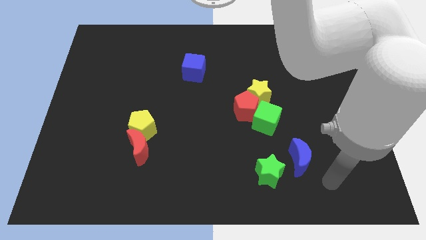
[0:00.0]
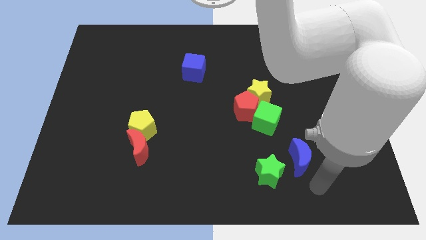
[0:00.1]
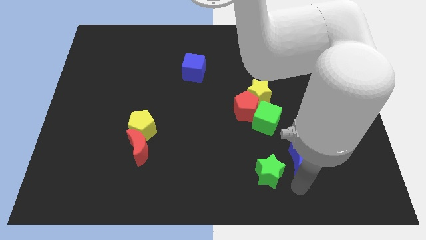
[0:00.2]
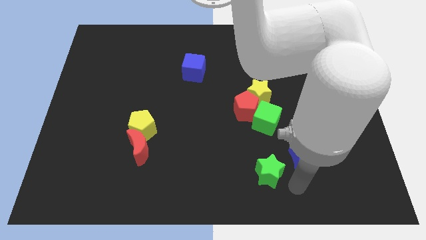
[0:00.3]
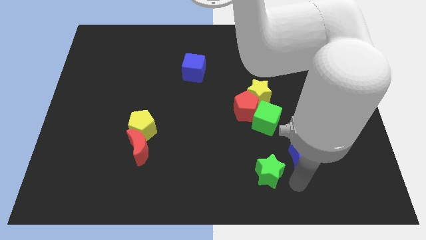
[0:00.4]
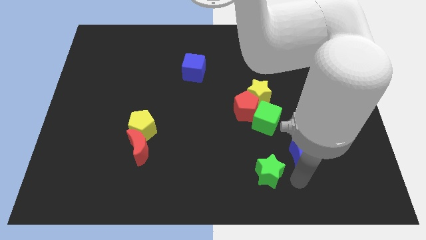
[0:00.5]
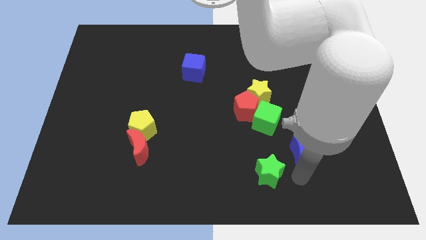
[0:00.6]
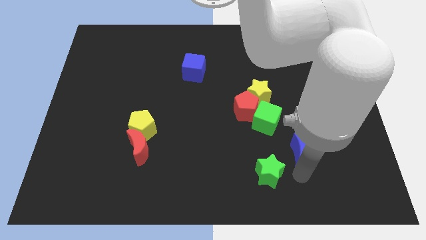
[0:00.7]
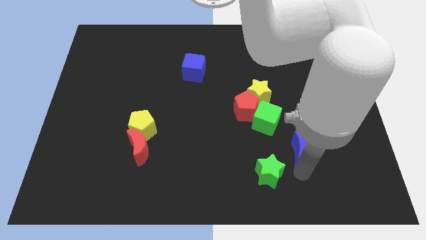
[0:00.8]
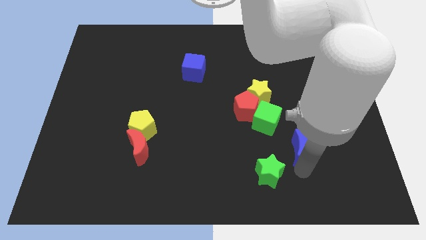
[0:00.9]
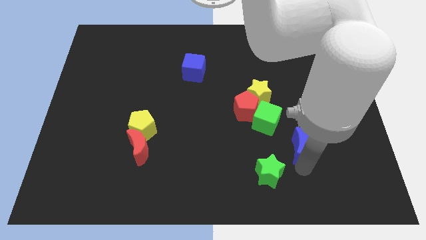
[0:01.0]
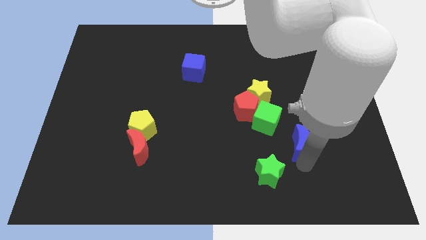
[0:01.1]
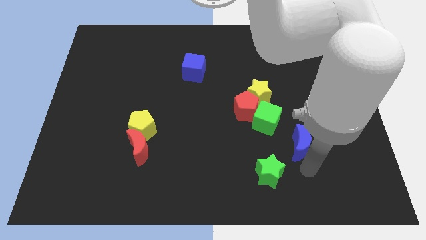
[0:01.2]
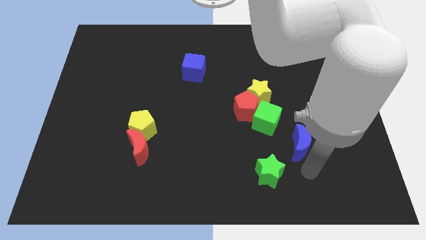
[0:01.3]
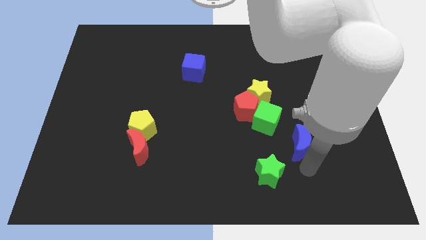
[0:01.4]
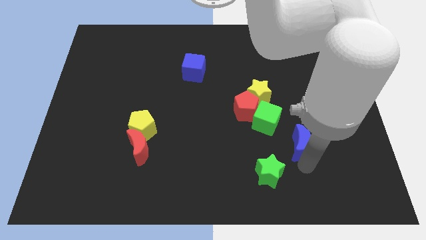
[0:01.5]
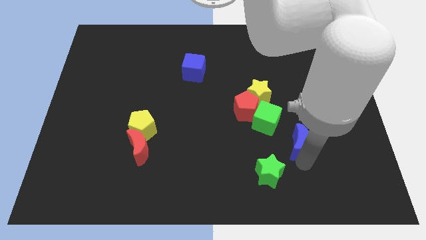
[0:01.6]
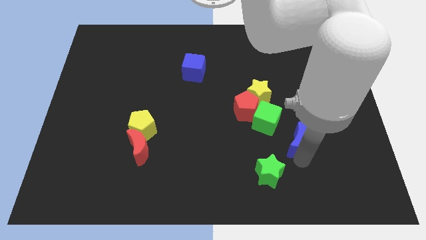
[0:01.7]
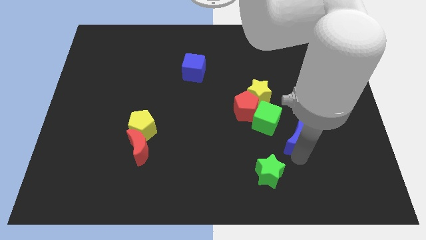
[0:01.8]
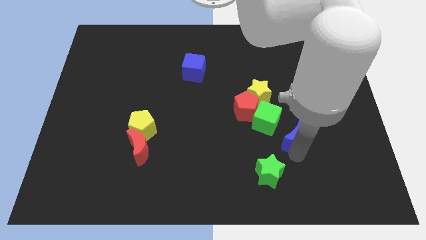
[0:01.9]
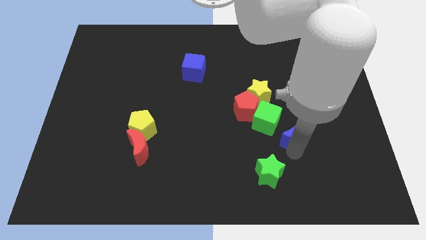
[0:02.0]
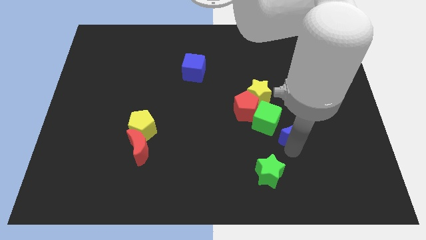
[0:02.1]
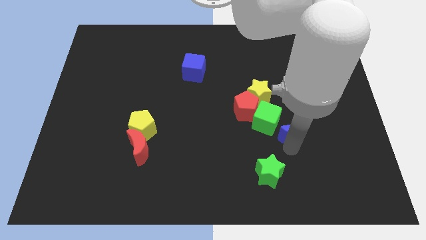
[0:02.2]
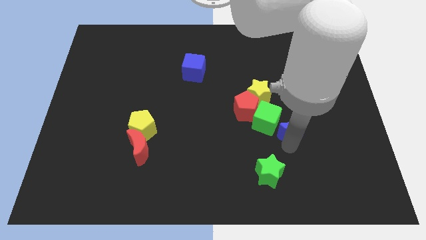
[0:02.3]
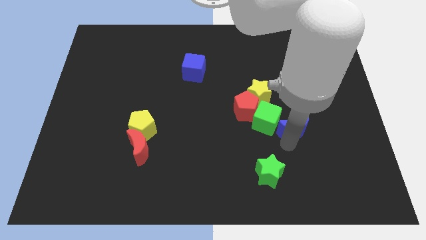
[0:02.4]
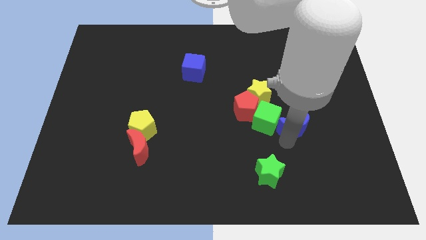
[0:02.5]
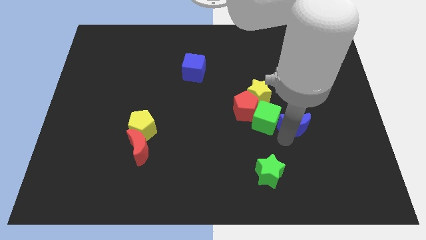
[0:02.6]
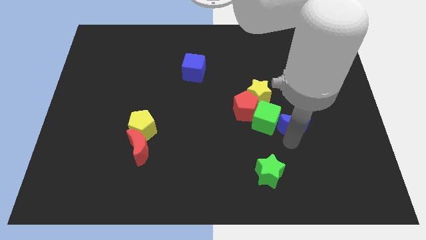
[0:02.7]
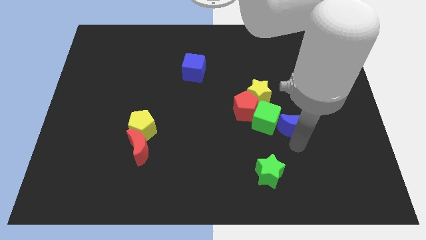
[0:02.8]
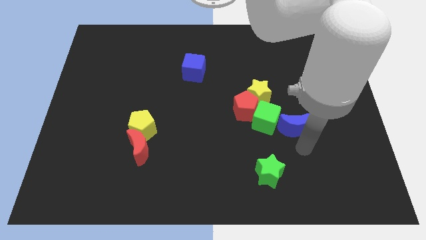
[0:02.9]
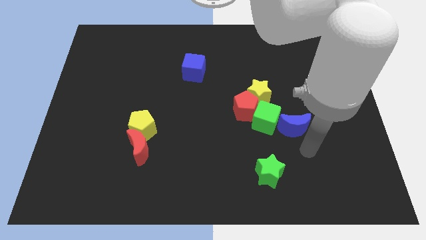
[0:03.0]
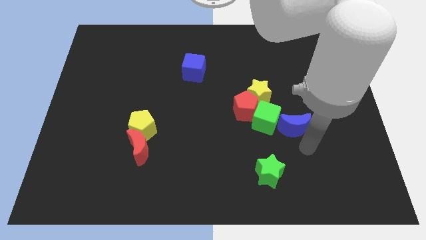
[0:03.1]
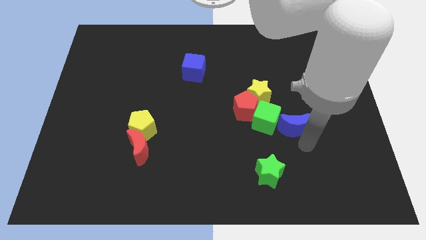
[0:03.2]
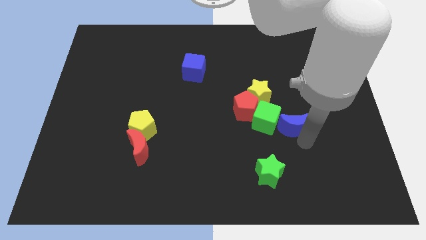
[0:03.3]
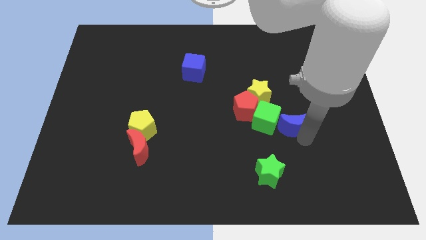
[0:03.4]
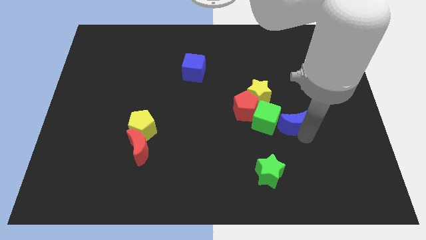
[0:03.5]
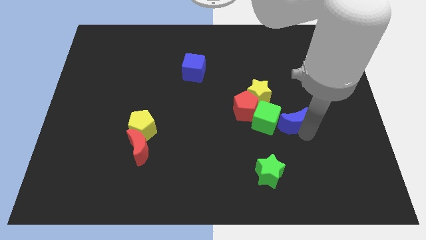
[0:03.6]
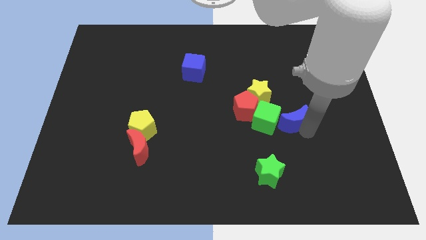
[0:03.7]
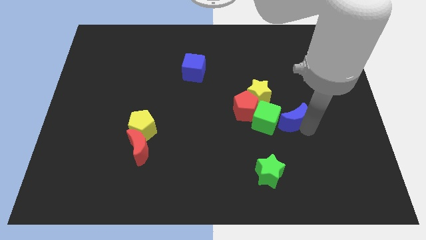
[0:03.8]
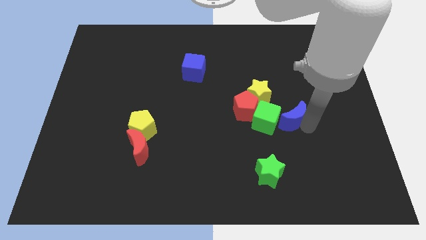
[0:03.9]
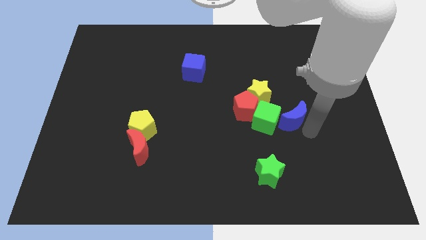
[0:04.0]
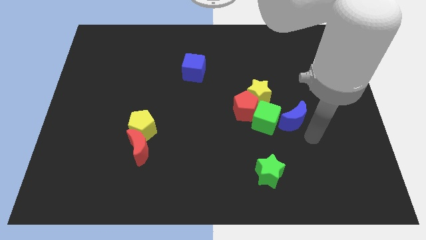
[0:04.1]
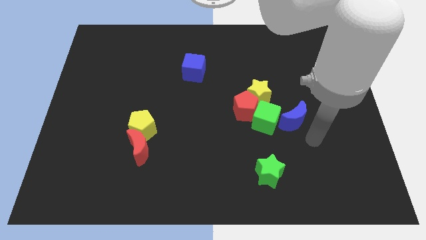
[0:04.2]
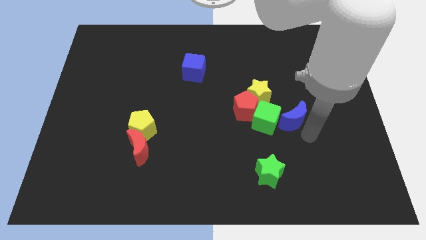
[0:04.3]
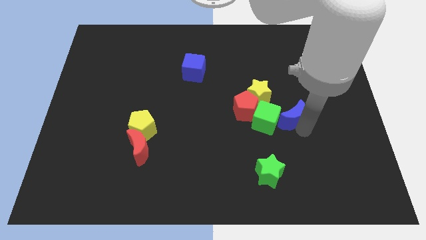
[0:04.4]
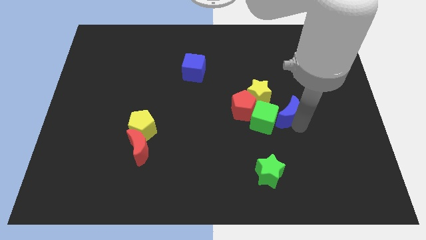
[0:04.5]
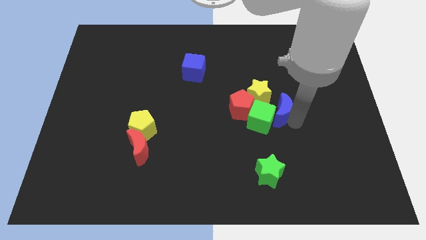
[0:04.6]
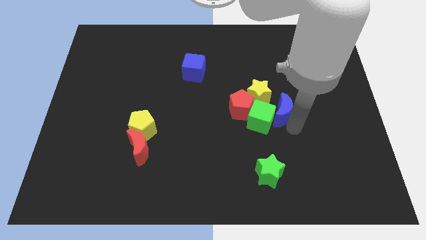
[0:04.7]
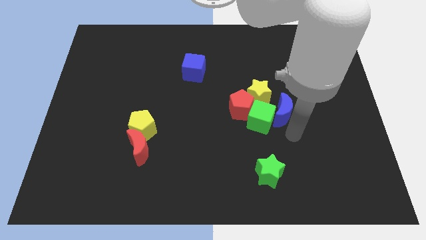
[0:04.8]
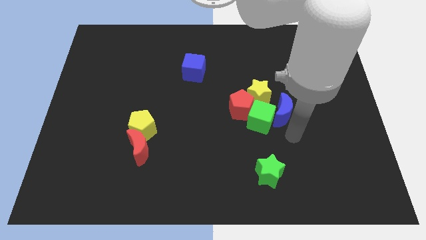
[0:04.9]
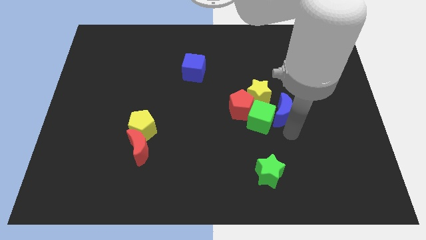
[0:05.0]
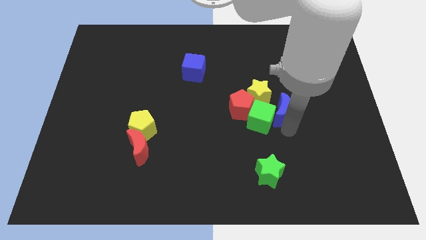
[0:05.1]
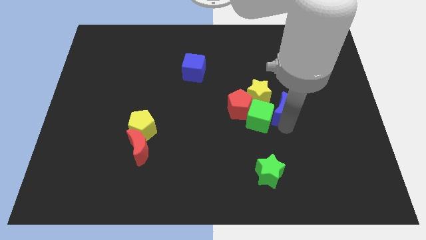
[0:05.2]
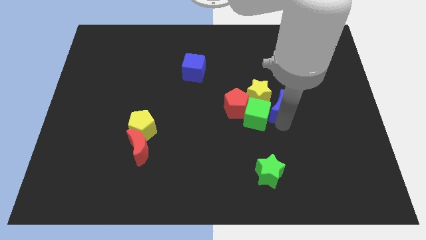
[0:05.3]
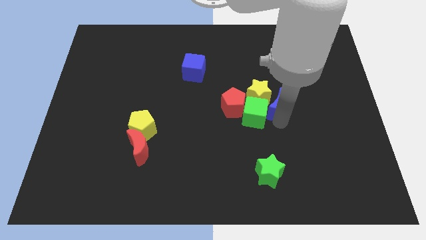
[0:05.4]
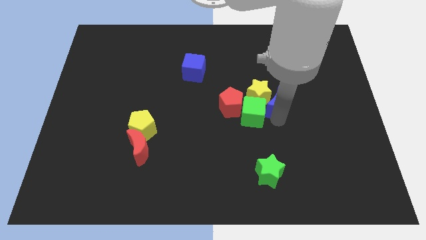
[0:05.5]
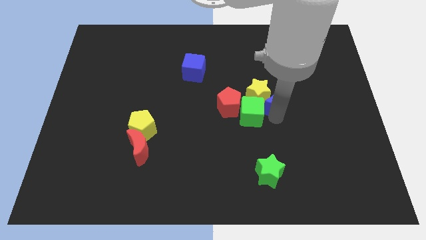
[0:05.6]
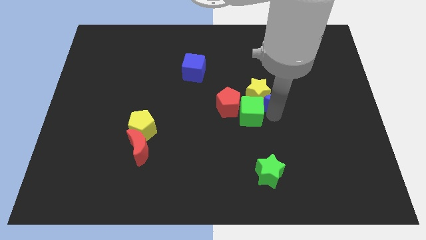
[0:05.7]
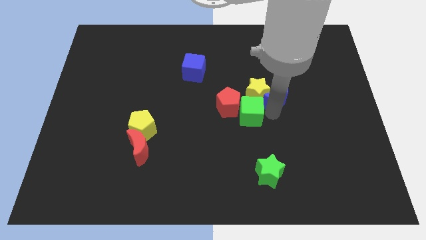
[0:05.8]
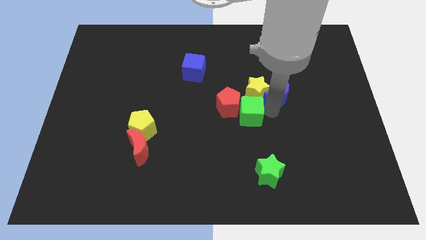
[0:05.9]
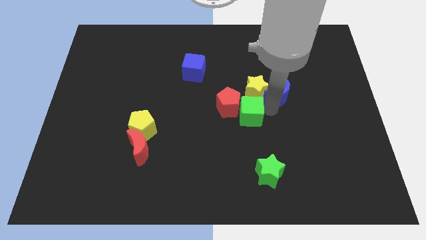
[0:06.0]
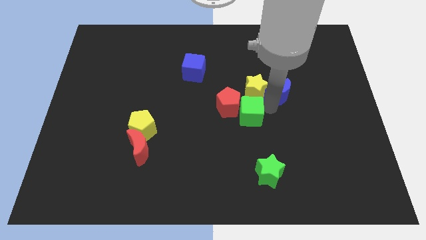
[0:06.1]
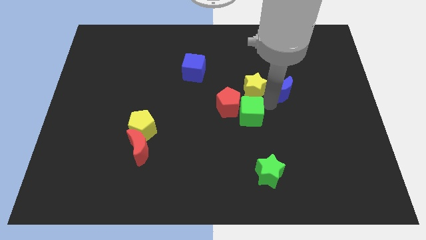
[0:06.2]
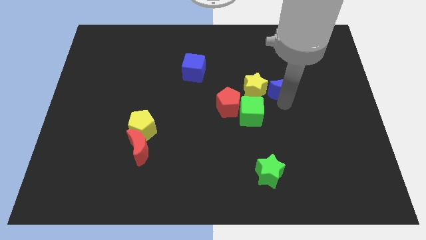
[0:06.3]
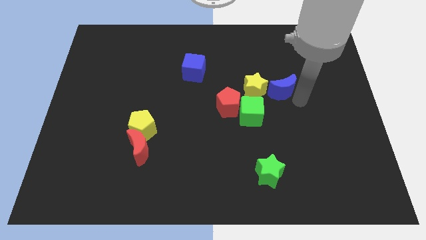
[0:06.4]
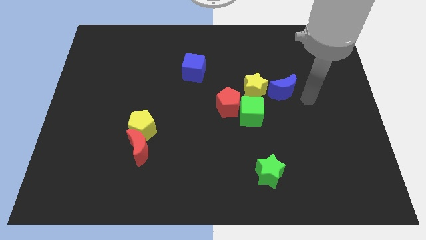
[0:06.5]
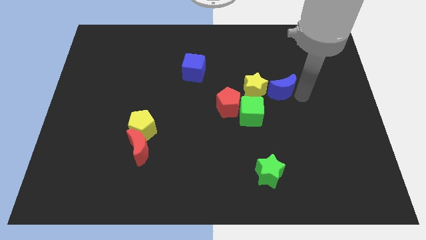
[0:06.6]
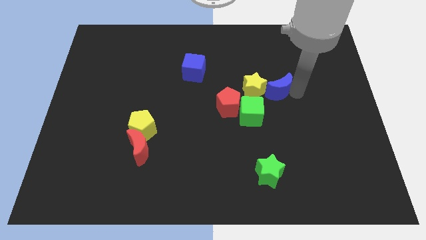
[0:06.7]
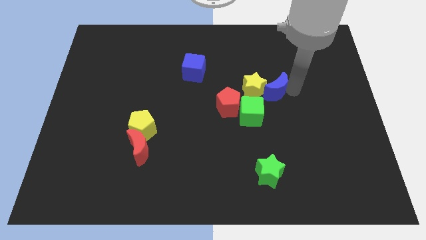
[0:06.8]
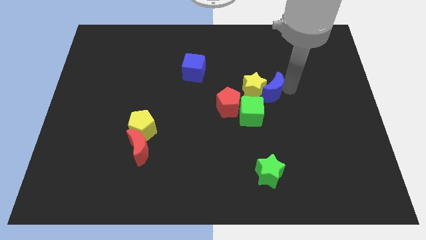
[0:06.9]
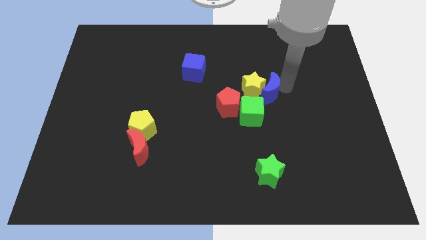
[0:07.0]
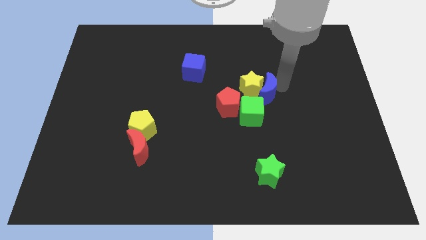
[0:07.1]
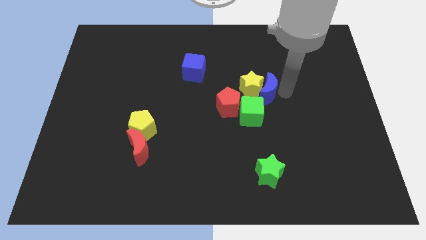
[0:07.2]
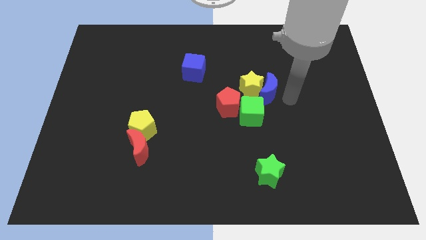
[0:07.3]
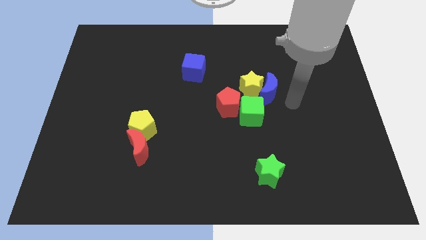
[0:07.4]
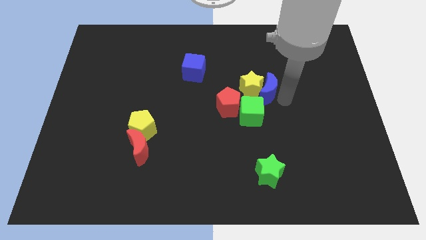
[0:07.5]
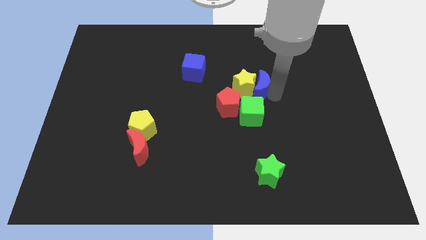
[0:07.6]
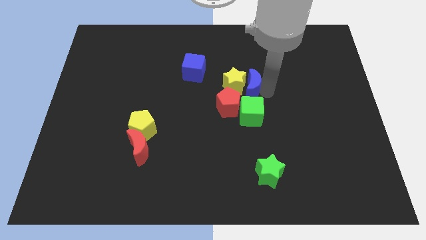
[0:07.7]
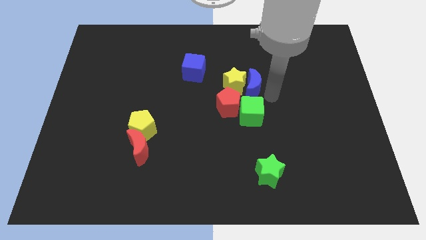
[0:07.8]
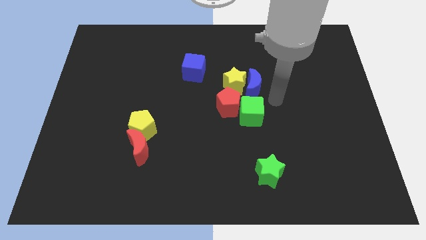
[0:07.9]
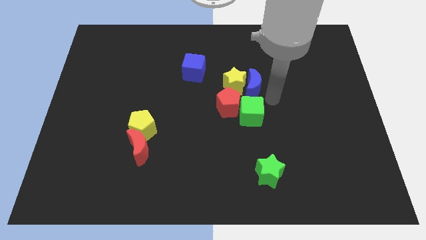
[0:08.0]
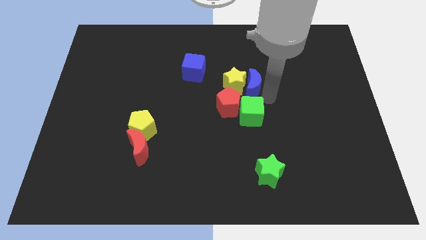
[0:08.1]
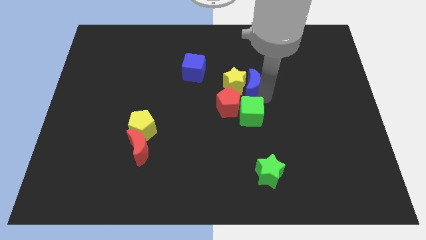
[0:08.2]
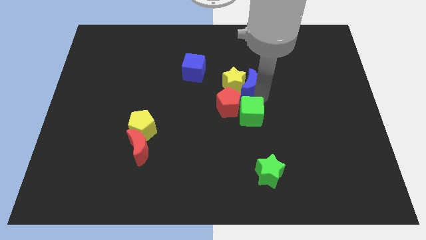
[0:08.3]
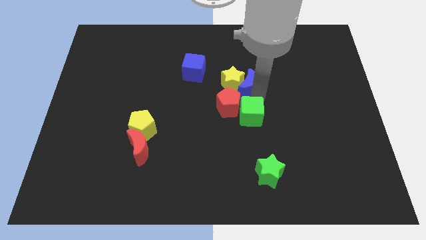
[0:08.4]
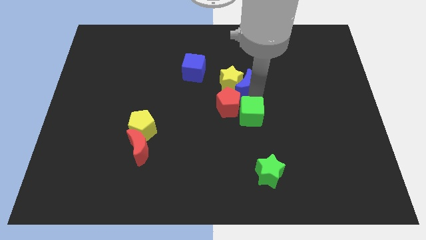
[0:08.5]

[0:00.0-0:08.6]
slide the blue moon to the top side of the red pentagon

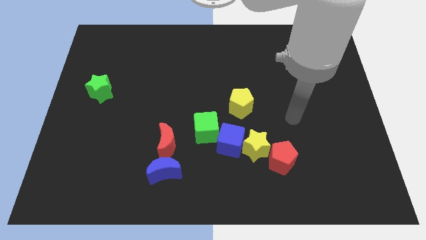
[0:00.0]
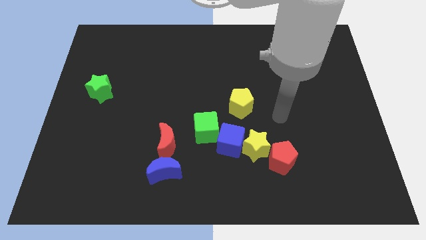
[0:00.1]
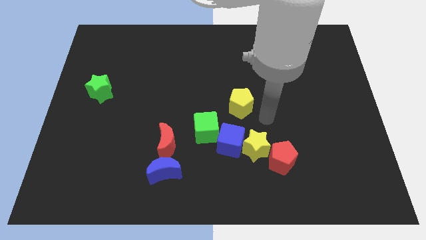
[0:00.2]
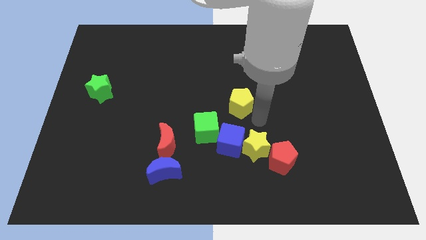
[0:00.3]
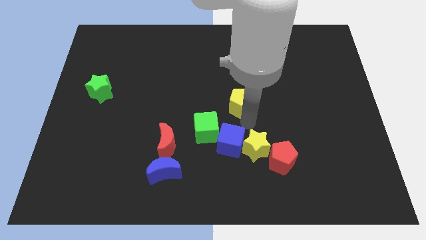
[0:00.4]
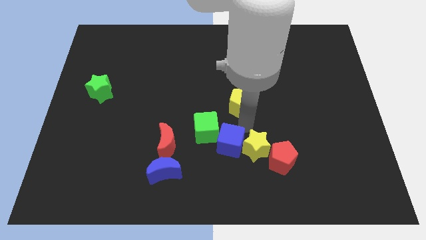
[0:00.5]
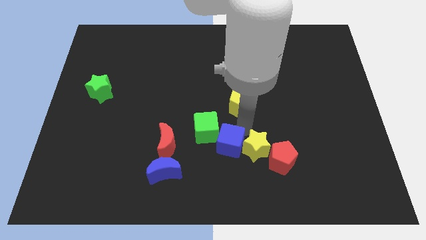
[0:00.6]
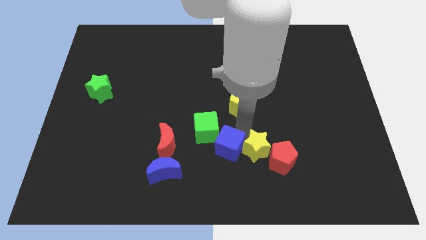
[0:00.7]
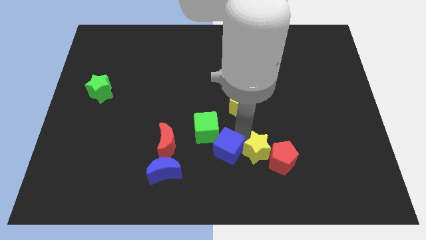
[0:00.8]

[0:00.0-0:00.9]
push the blue cube to the bottom side of the green cube
